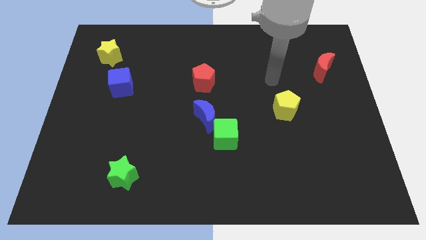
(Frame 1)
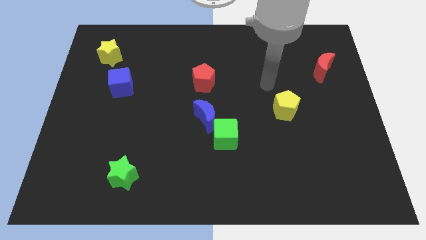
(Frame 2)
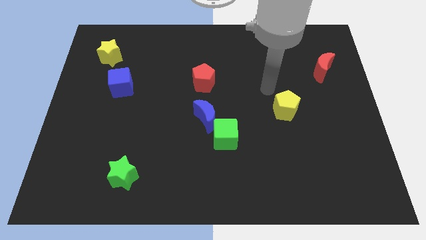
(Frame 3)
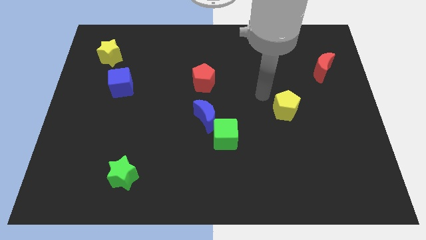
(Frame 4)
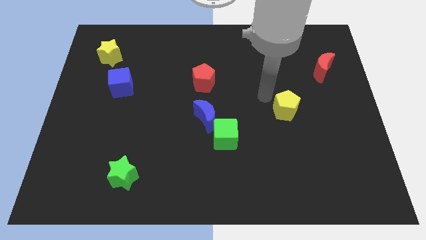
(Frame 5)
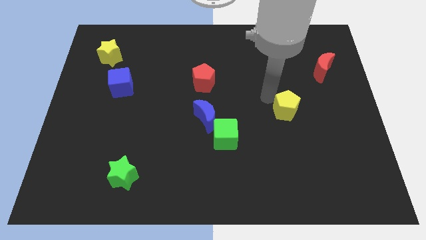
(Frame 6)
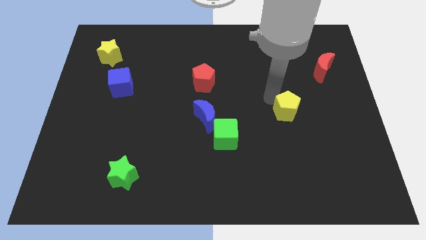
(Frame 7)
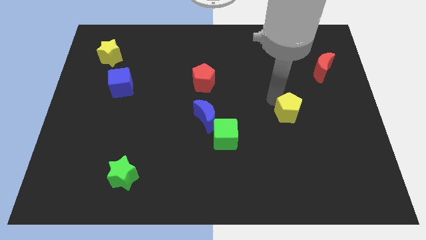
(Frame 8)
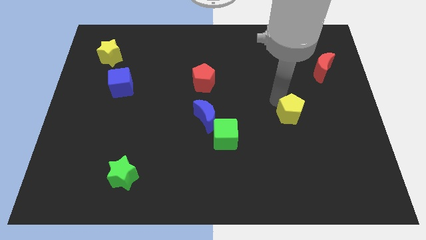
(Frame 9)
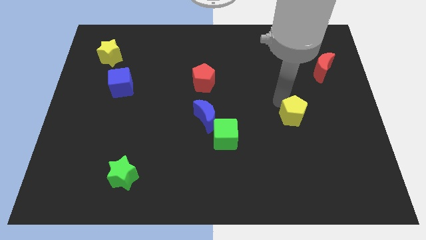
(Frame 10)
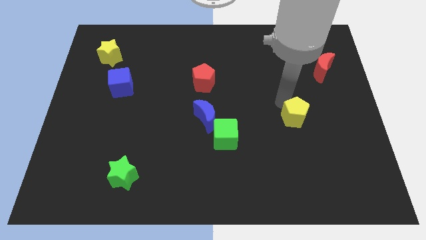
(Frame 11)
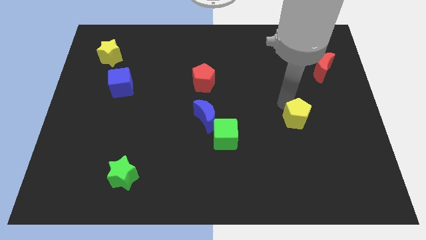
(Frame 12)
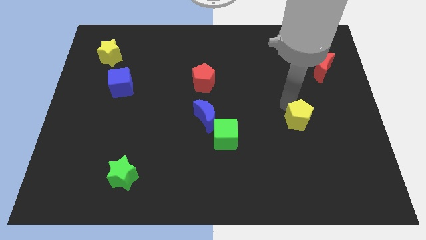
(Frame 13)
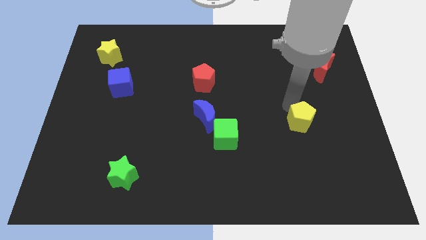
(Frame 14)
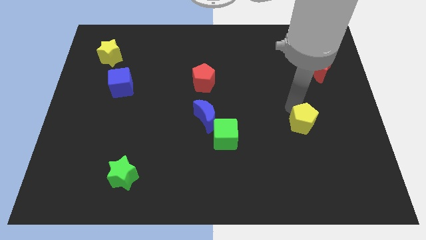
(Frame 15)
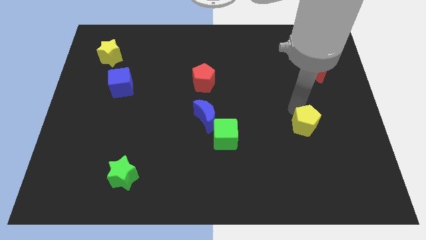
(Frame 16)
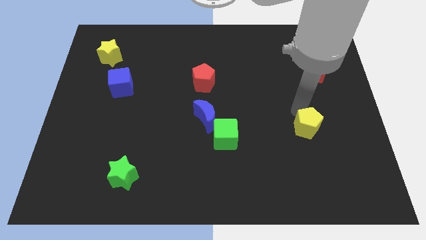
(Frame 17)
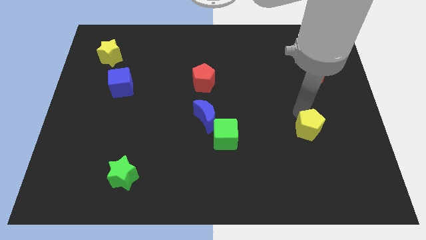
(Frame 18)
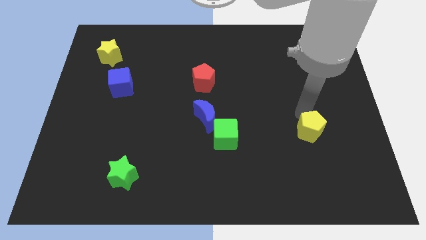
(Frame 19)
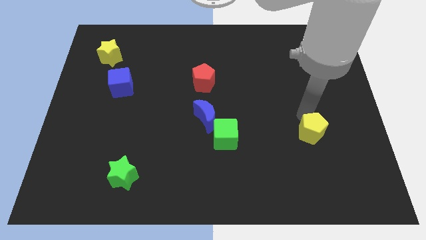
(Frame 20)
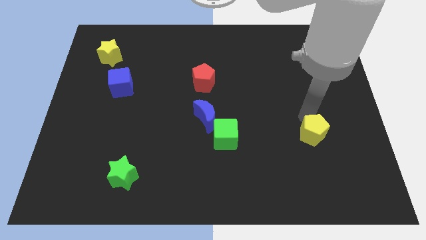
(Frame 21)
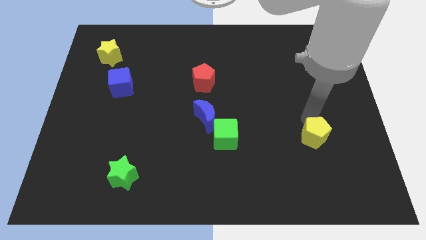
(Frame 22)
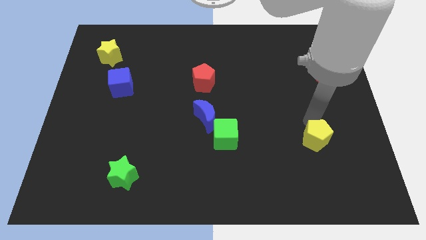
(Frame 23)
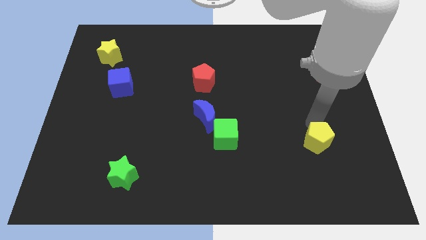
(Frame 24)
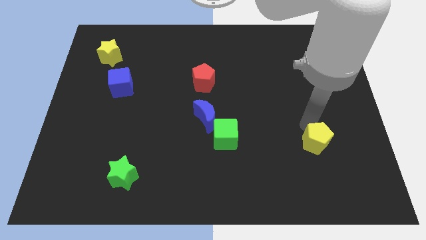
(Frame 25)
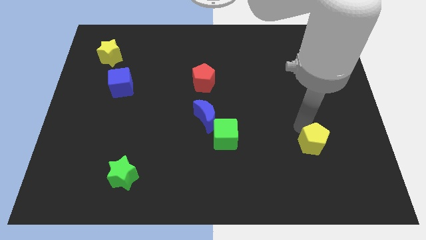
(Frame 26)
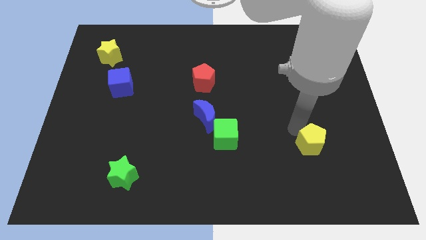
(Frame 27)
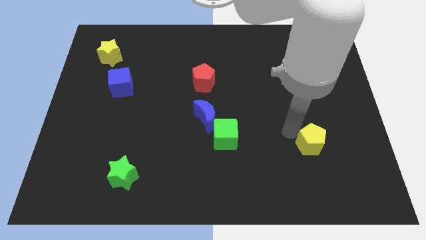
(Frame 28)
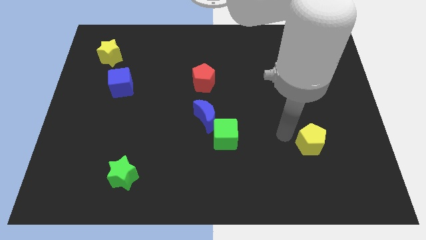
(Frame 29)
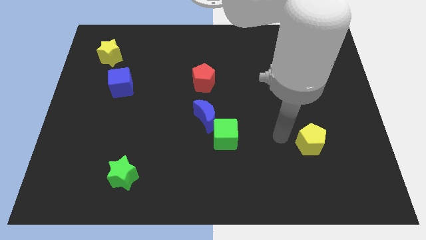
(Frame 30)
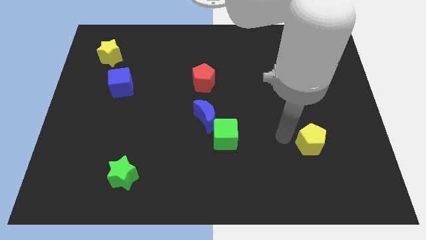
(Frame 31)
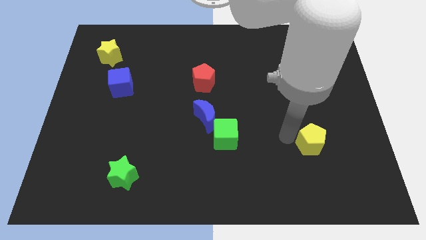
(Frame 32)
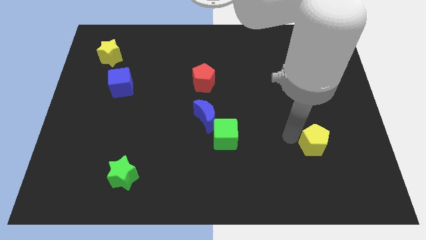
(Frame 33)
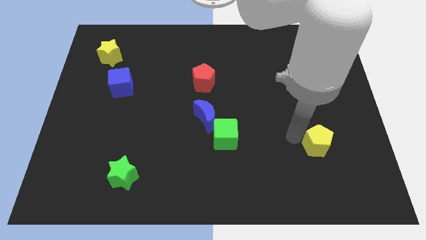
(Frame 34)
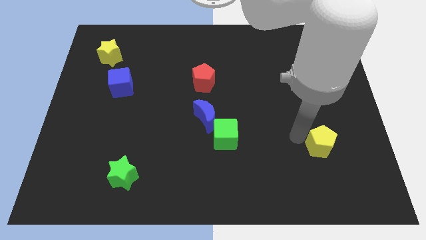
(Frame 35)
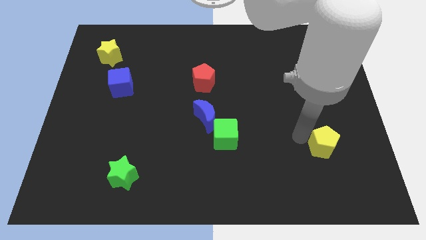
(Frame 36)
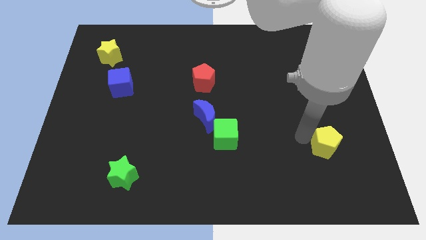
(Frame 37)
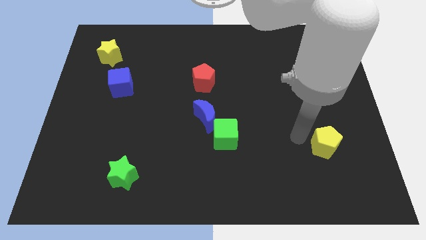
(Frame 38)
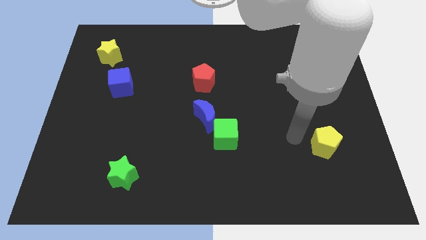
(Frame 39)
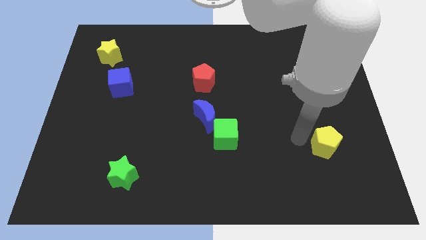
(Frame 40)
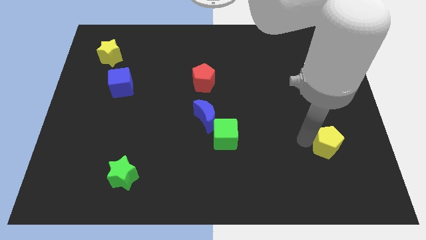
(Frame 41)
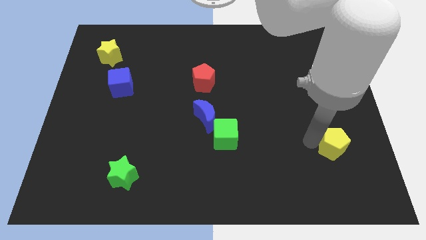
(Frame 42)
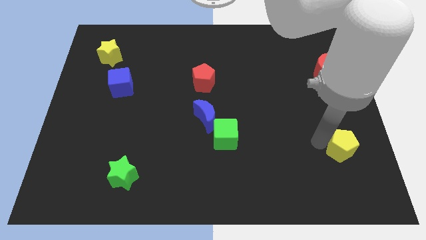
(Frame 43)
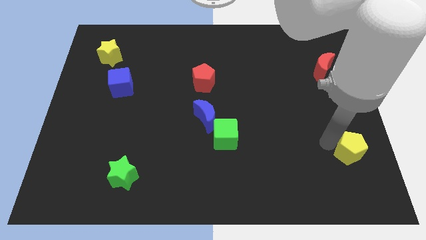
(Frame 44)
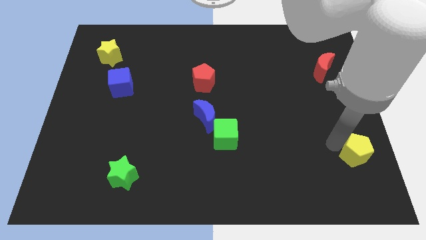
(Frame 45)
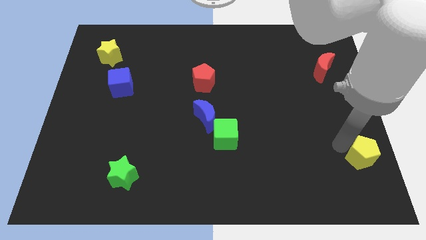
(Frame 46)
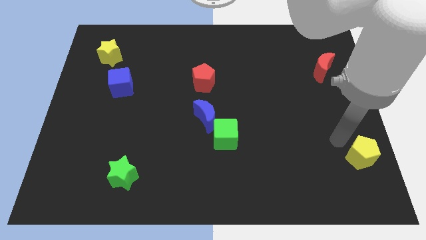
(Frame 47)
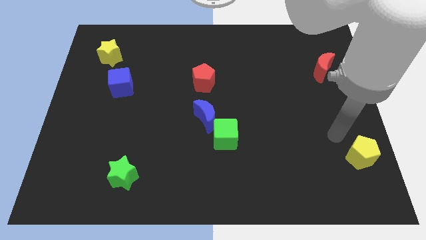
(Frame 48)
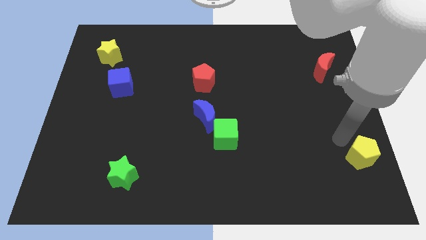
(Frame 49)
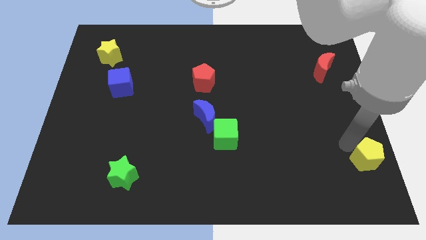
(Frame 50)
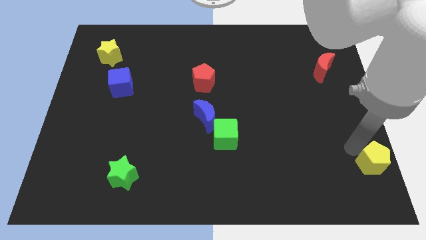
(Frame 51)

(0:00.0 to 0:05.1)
push the yellow pentagon to the bottom right
